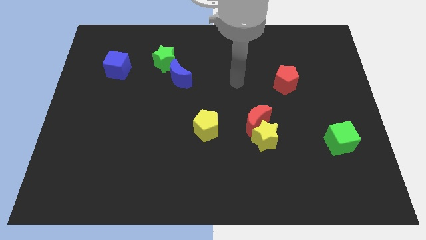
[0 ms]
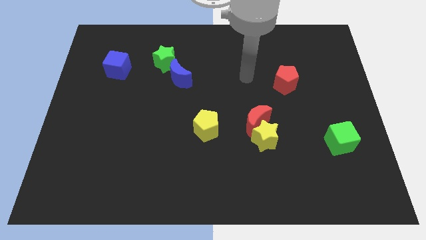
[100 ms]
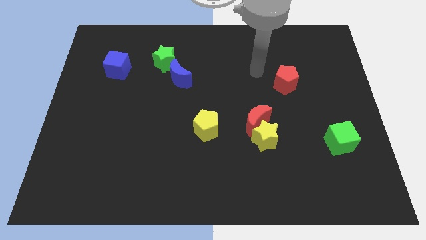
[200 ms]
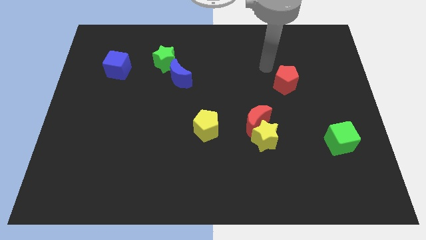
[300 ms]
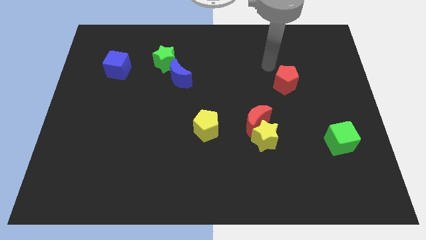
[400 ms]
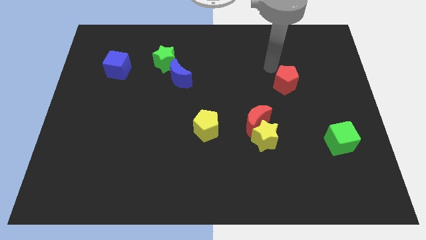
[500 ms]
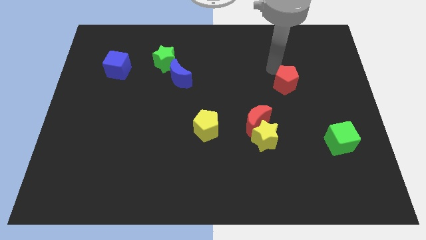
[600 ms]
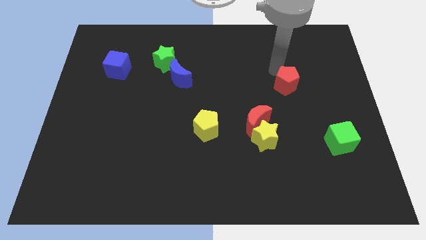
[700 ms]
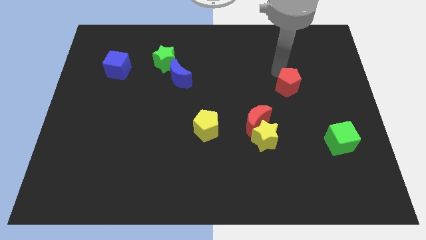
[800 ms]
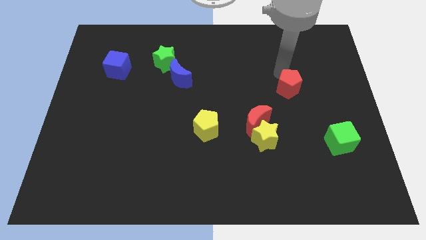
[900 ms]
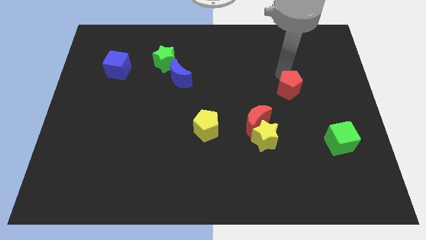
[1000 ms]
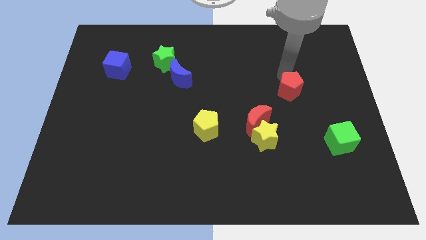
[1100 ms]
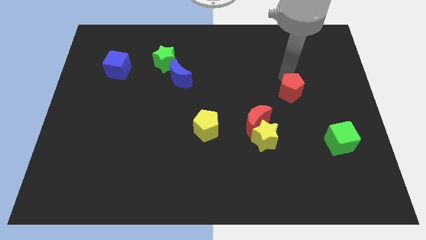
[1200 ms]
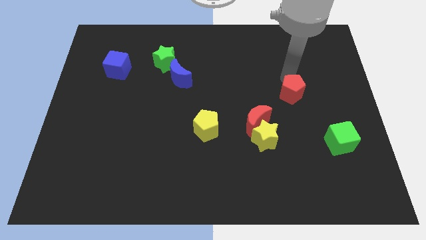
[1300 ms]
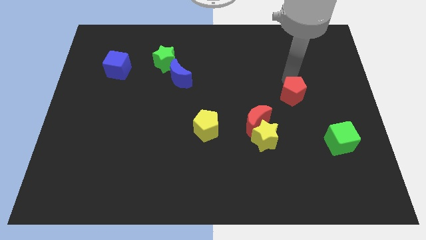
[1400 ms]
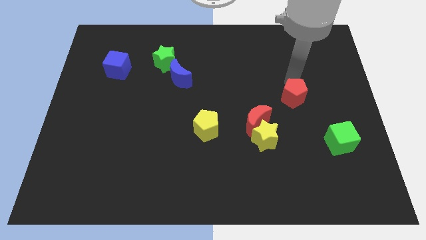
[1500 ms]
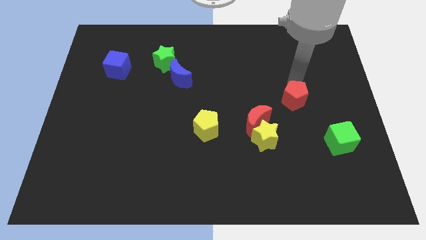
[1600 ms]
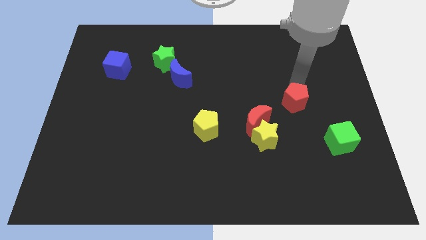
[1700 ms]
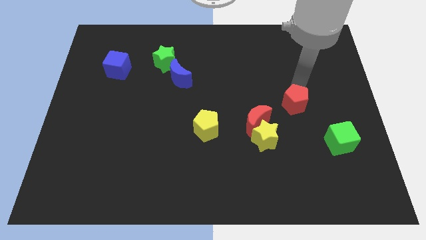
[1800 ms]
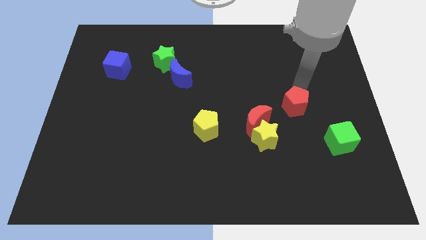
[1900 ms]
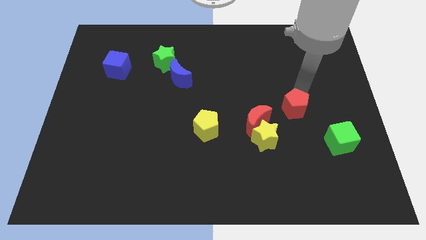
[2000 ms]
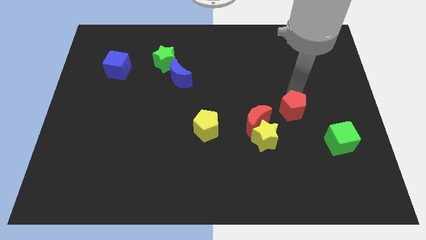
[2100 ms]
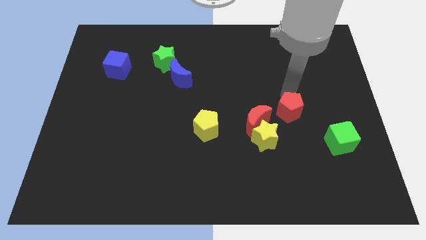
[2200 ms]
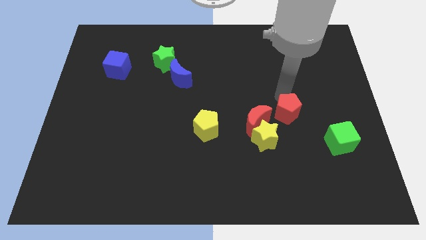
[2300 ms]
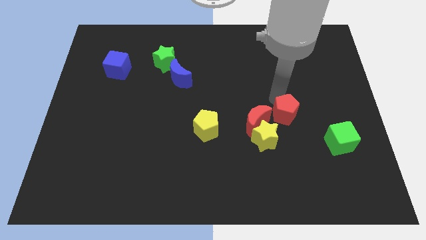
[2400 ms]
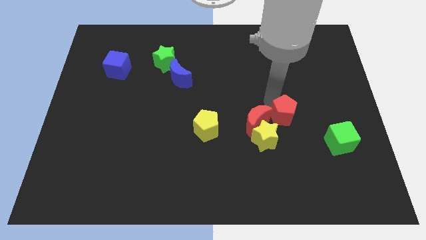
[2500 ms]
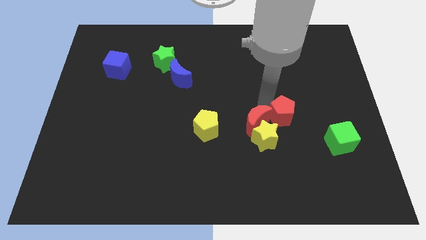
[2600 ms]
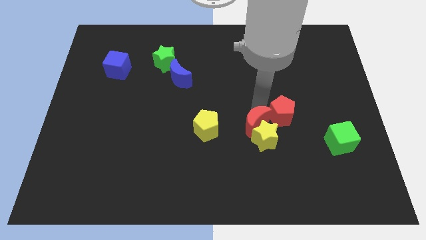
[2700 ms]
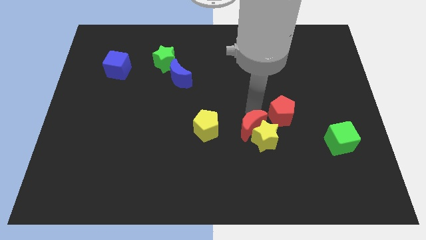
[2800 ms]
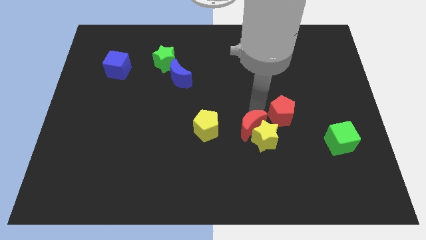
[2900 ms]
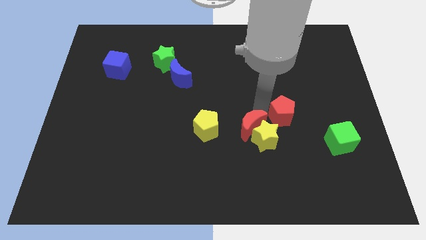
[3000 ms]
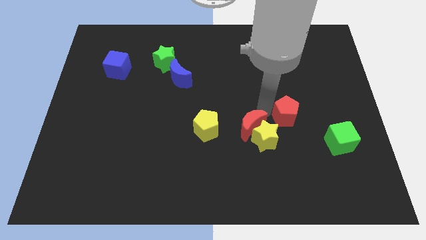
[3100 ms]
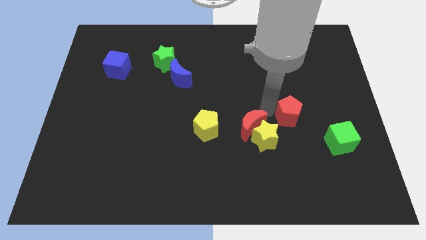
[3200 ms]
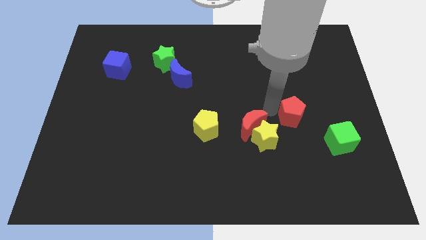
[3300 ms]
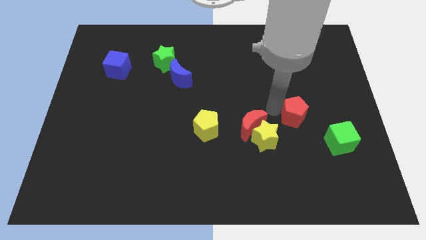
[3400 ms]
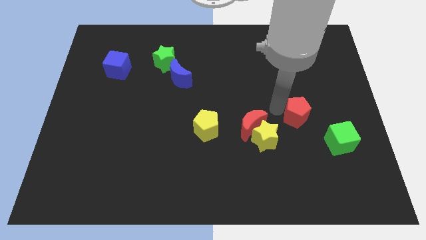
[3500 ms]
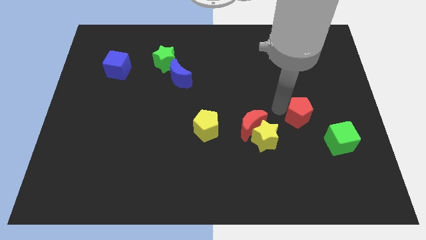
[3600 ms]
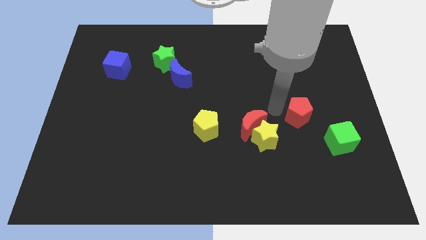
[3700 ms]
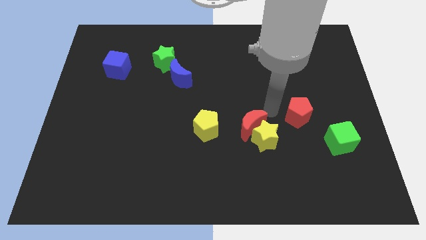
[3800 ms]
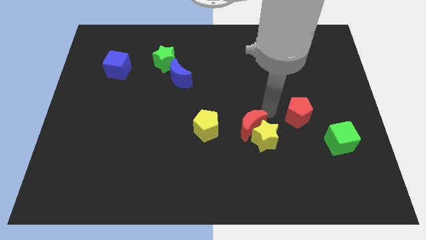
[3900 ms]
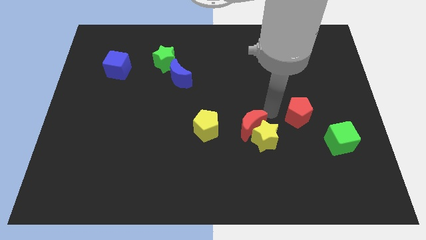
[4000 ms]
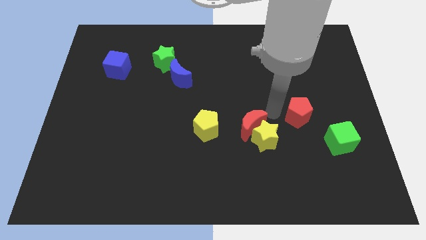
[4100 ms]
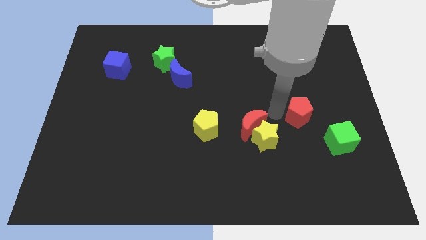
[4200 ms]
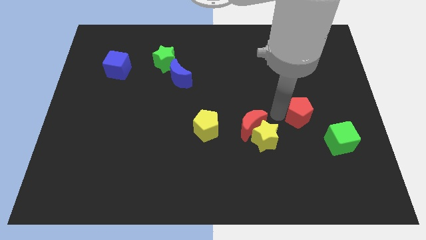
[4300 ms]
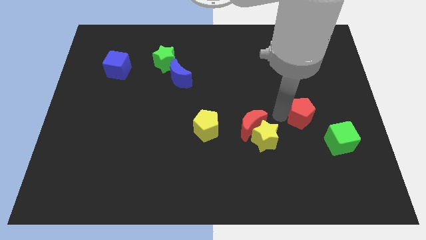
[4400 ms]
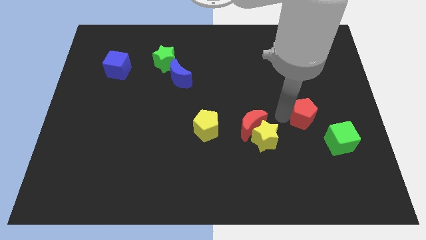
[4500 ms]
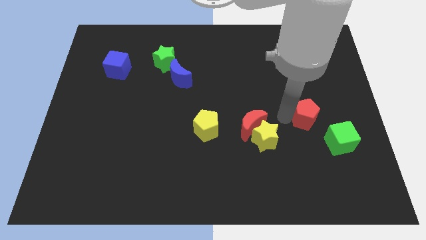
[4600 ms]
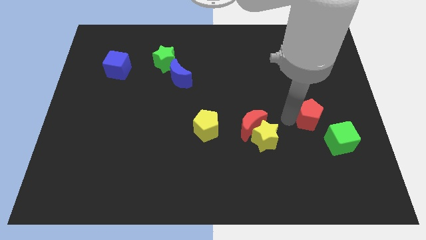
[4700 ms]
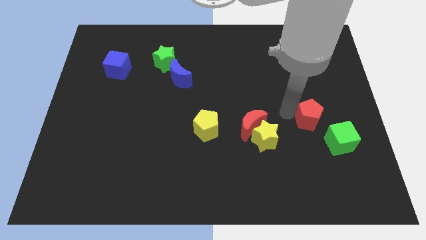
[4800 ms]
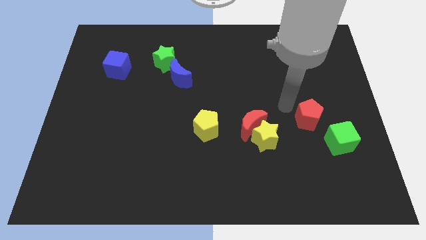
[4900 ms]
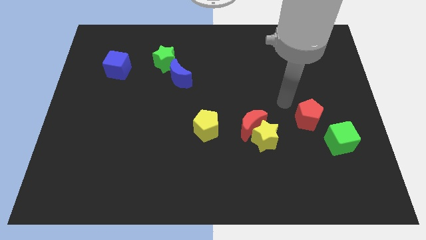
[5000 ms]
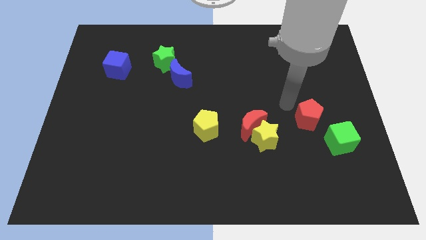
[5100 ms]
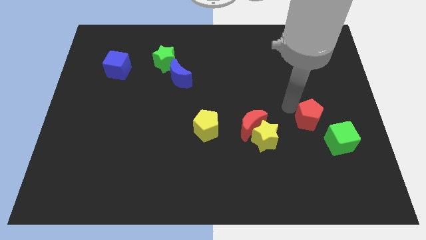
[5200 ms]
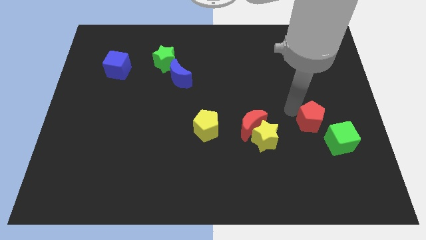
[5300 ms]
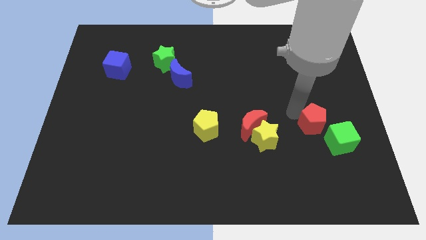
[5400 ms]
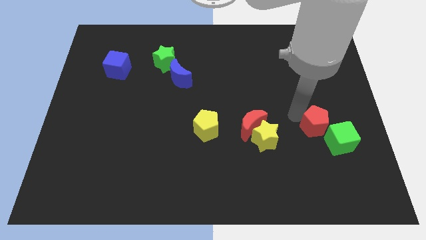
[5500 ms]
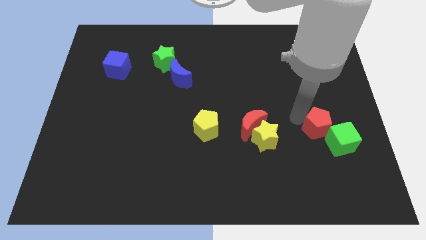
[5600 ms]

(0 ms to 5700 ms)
push the red pentagon to the green cube

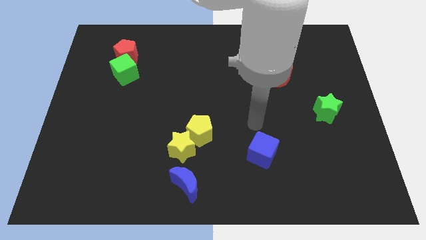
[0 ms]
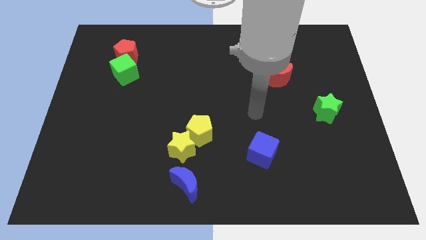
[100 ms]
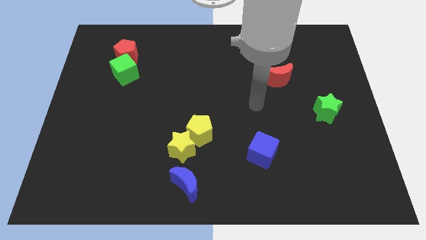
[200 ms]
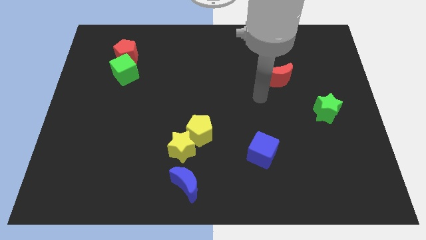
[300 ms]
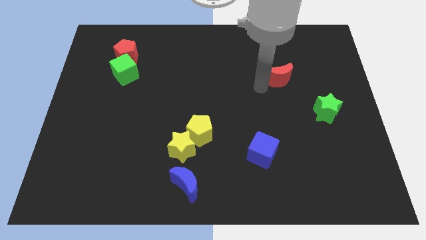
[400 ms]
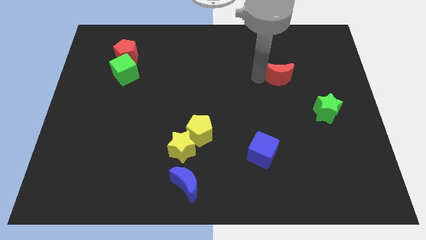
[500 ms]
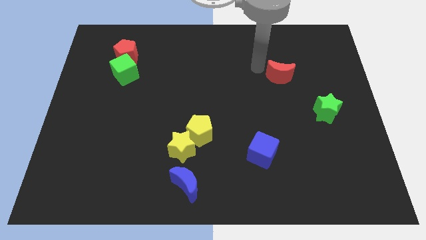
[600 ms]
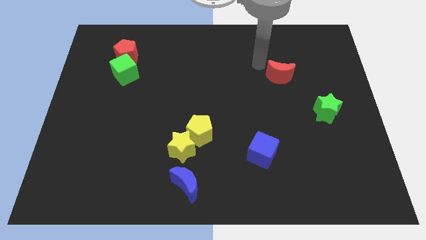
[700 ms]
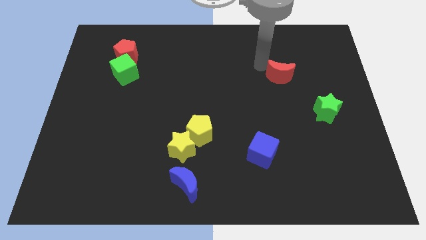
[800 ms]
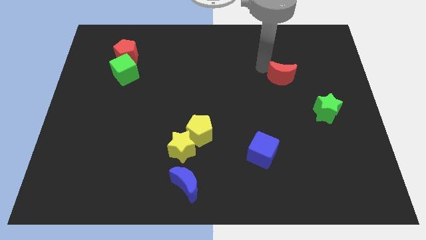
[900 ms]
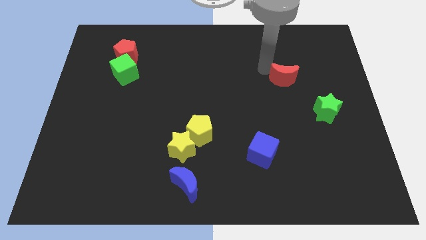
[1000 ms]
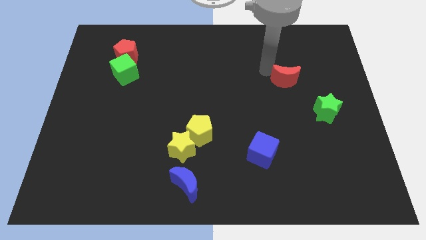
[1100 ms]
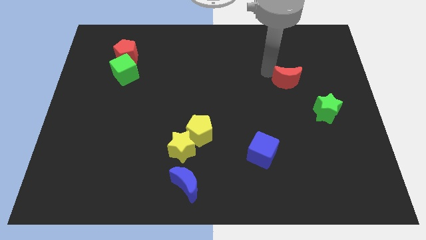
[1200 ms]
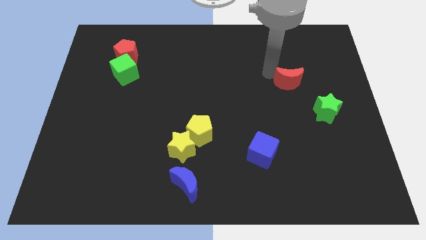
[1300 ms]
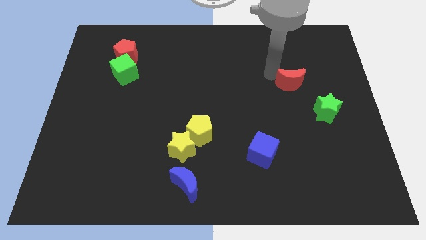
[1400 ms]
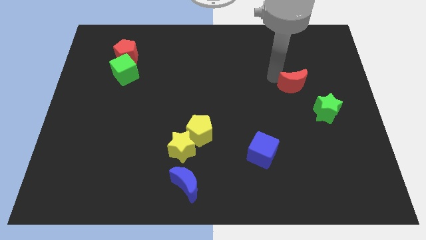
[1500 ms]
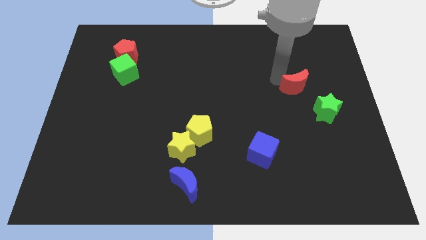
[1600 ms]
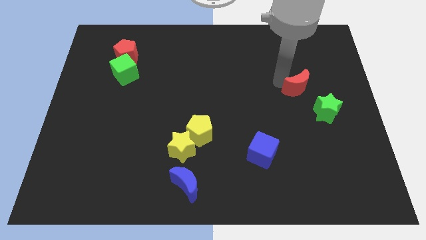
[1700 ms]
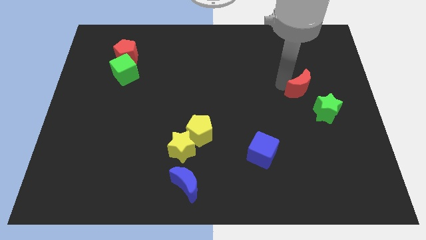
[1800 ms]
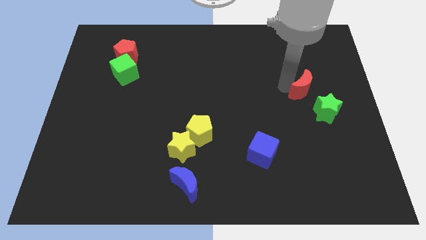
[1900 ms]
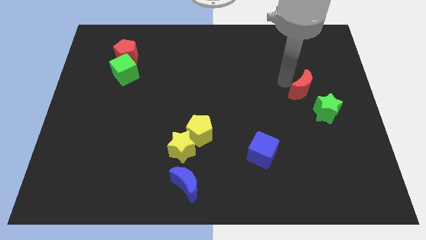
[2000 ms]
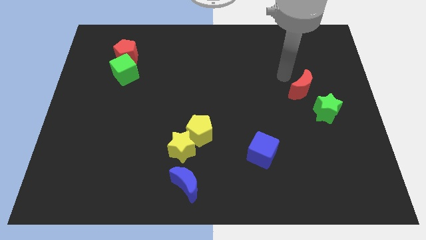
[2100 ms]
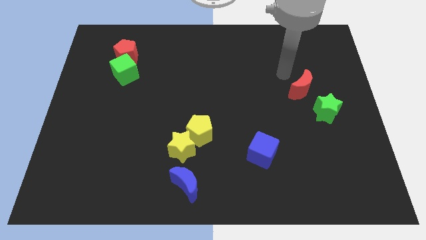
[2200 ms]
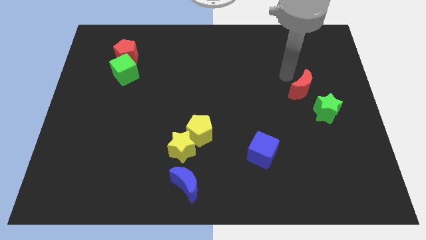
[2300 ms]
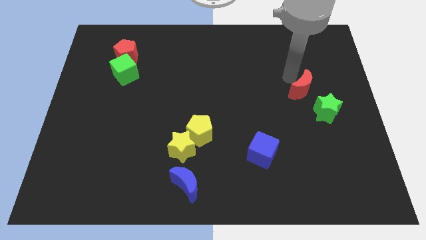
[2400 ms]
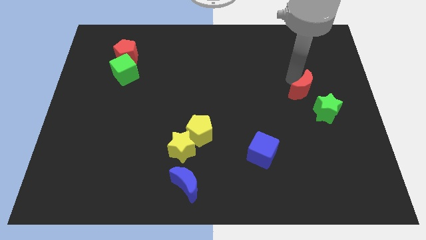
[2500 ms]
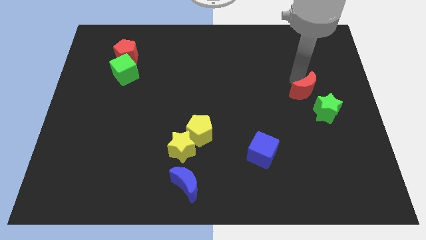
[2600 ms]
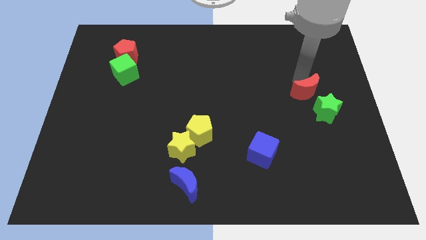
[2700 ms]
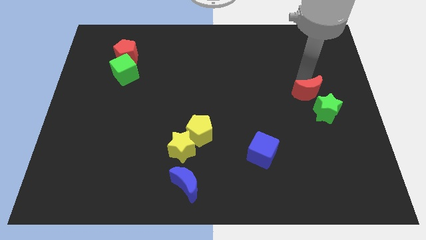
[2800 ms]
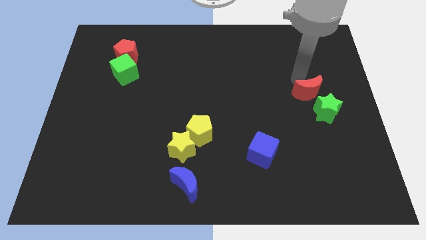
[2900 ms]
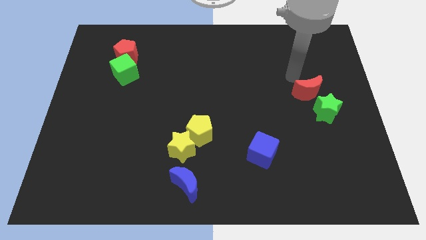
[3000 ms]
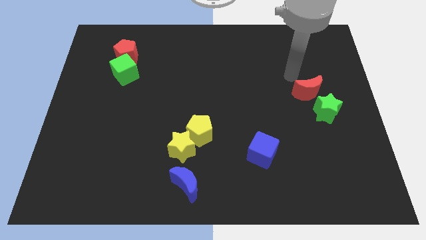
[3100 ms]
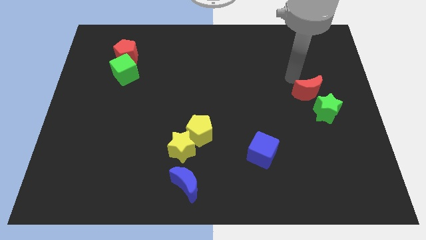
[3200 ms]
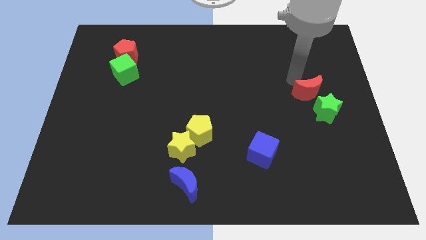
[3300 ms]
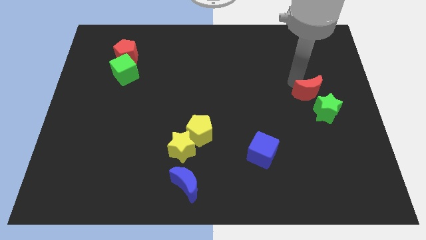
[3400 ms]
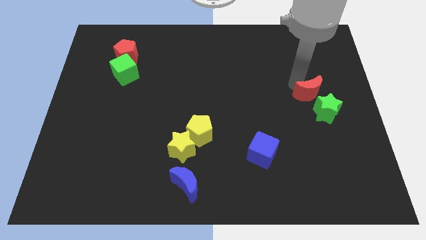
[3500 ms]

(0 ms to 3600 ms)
slide the red moon close to the green star
